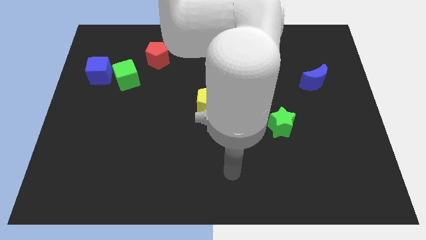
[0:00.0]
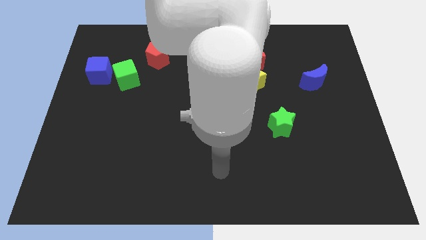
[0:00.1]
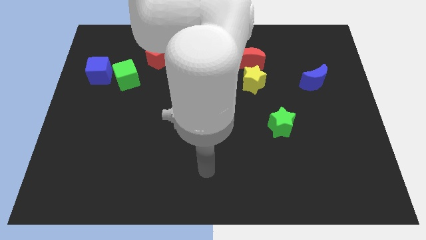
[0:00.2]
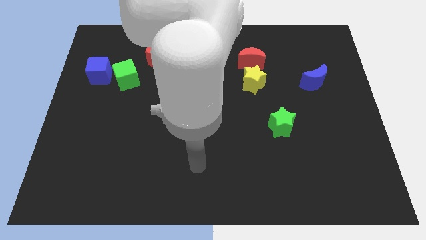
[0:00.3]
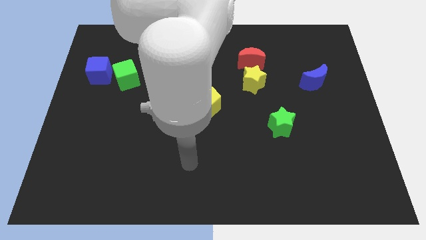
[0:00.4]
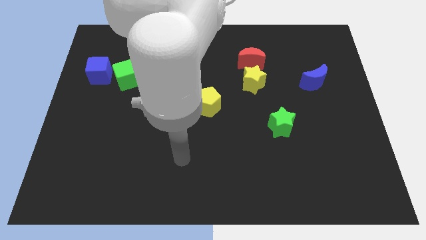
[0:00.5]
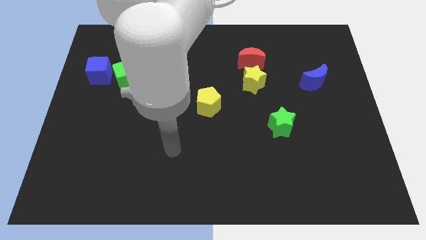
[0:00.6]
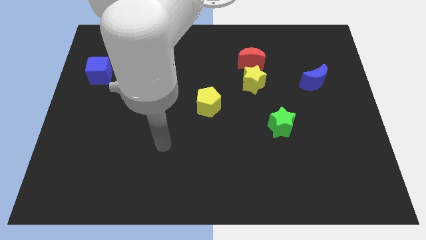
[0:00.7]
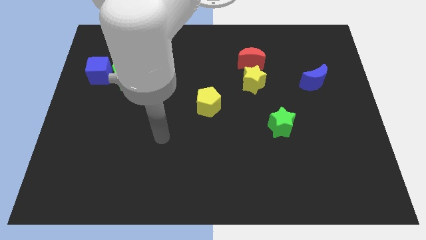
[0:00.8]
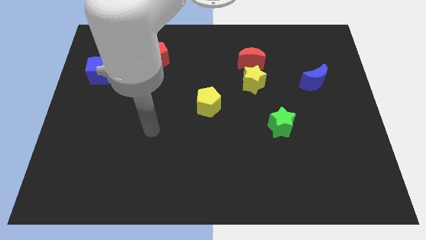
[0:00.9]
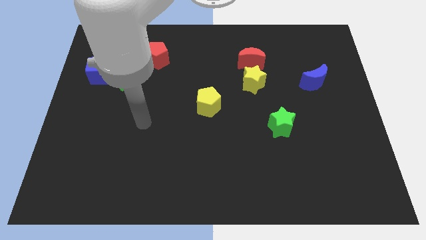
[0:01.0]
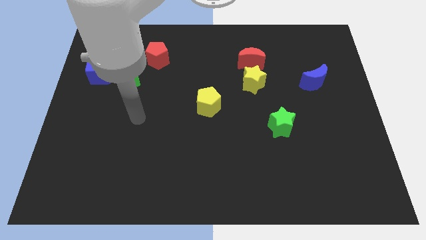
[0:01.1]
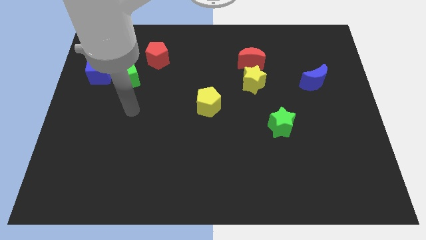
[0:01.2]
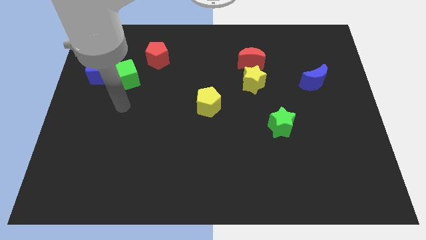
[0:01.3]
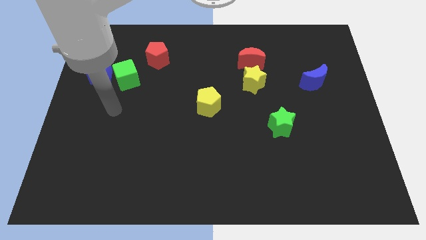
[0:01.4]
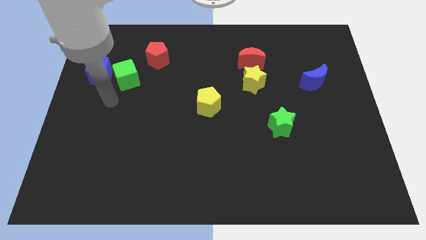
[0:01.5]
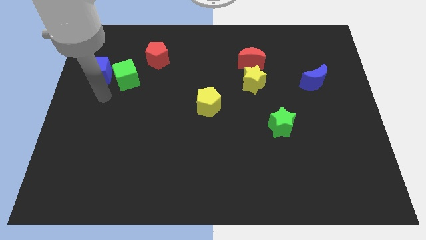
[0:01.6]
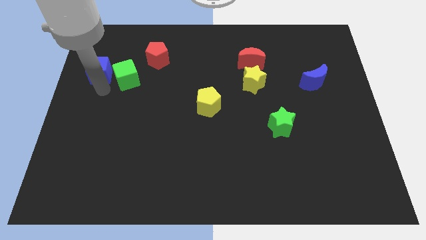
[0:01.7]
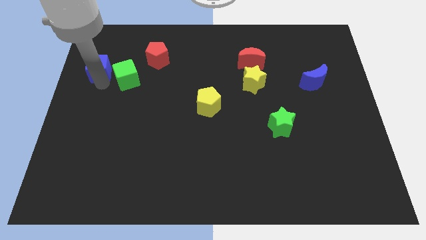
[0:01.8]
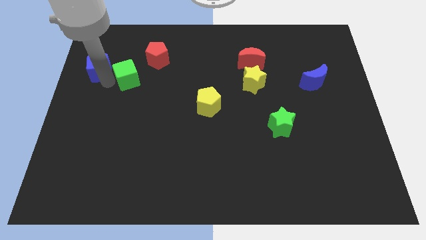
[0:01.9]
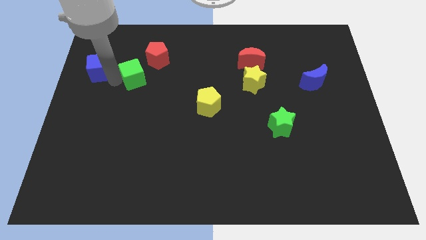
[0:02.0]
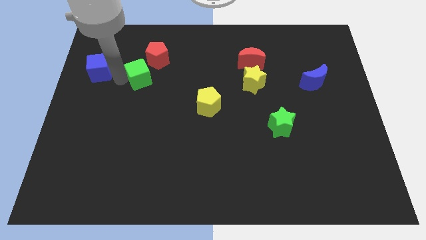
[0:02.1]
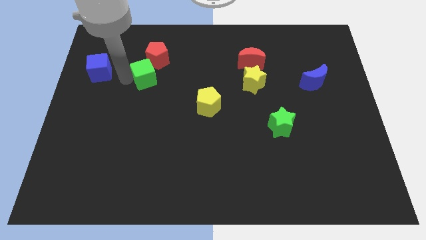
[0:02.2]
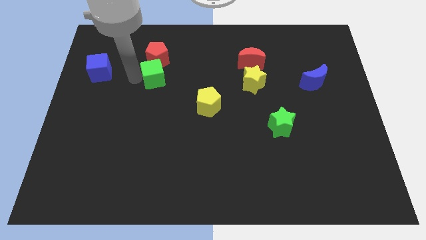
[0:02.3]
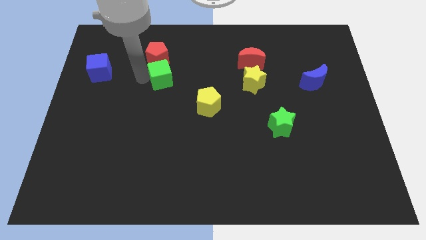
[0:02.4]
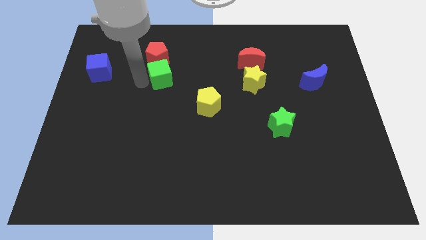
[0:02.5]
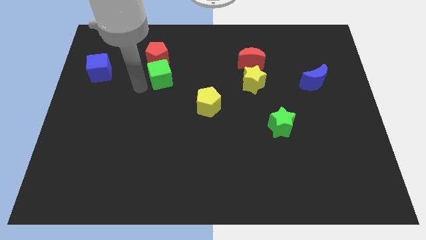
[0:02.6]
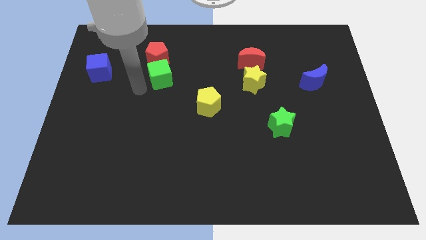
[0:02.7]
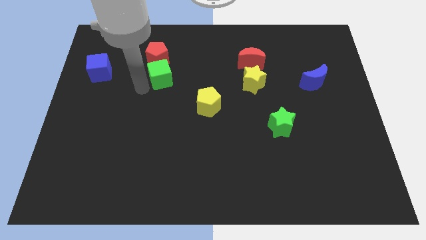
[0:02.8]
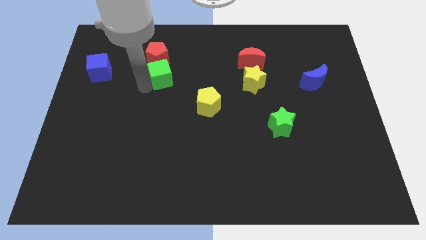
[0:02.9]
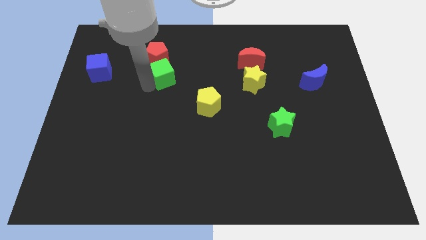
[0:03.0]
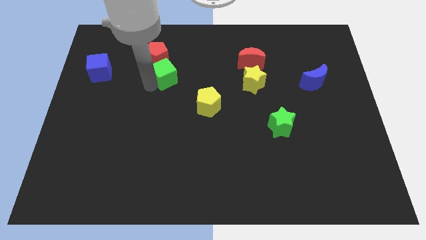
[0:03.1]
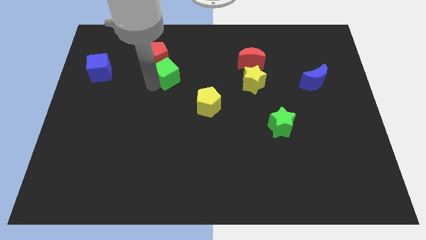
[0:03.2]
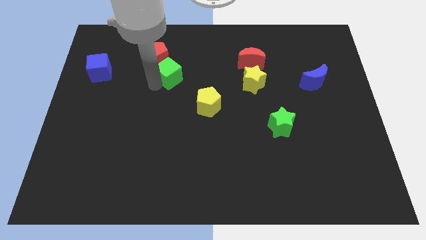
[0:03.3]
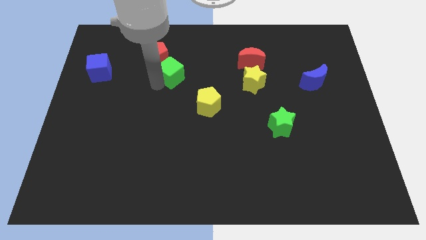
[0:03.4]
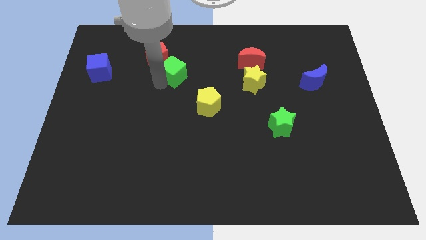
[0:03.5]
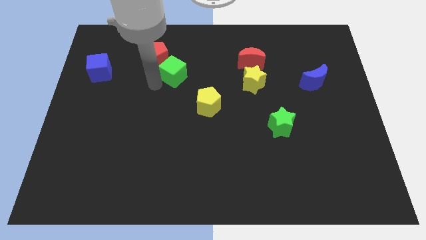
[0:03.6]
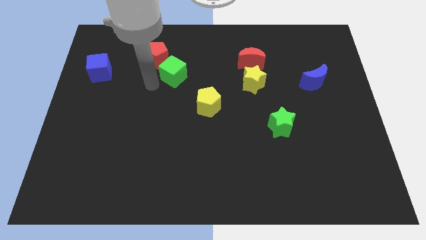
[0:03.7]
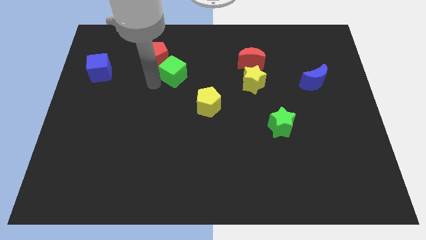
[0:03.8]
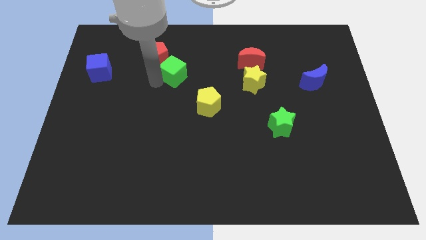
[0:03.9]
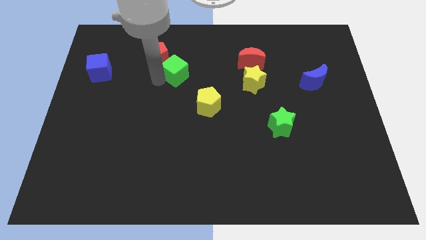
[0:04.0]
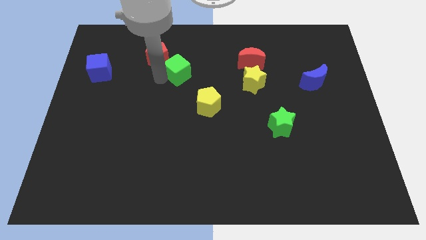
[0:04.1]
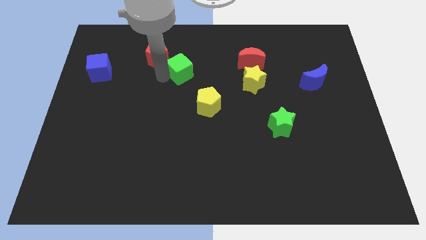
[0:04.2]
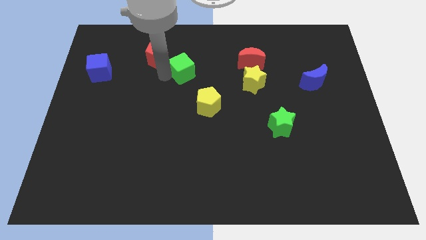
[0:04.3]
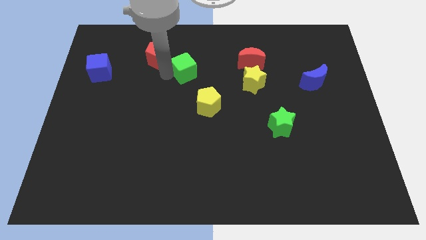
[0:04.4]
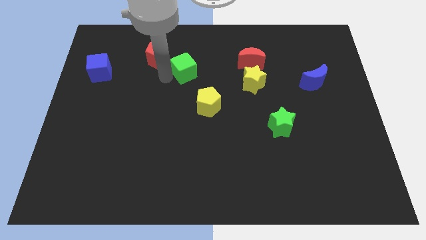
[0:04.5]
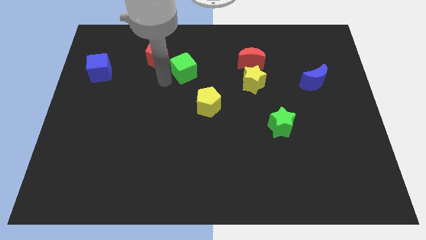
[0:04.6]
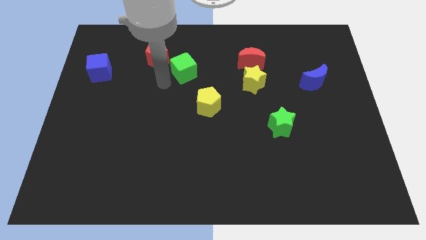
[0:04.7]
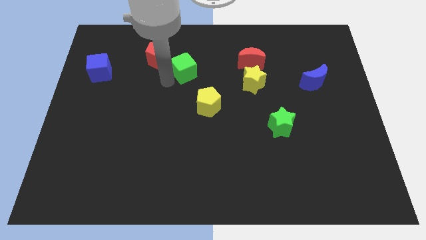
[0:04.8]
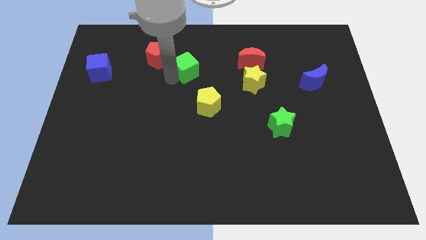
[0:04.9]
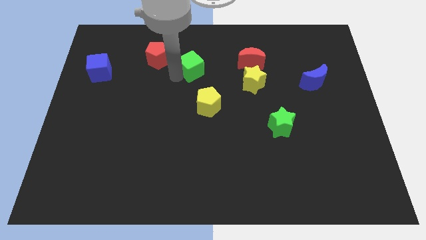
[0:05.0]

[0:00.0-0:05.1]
push the green cube left of the red moon

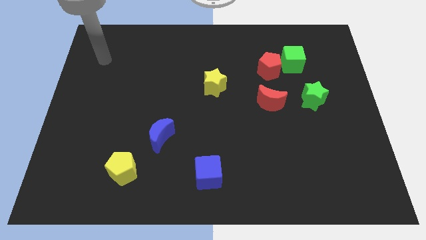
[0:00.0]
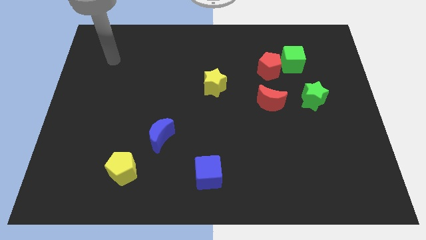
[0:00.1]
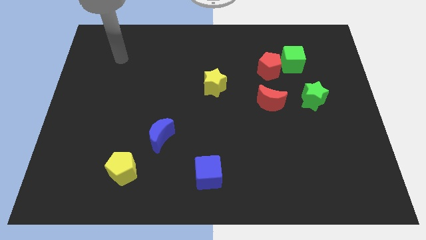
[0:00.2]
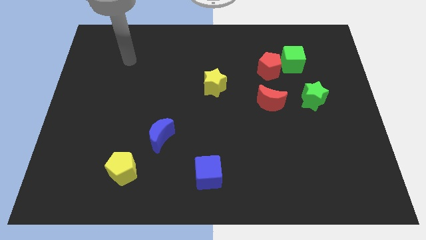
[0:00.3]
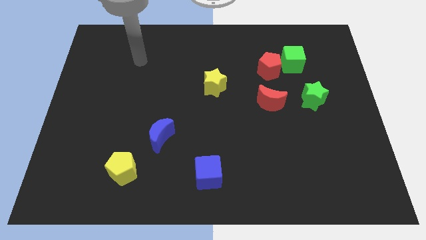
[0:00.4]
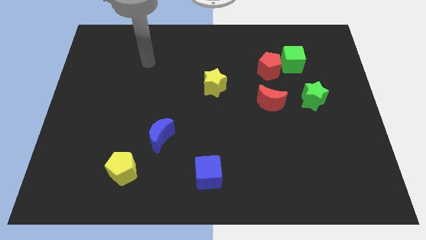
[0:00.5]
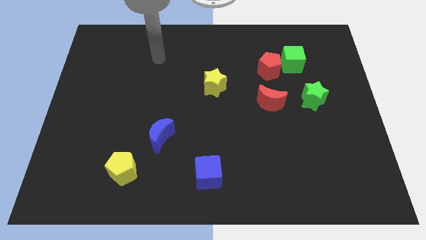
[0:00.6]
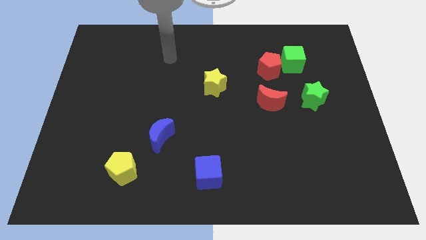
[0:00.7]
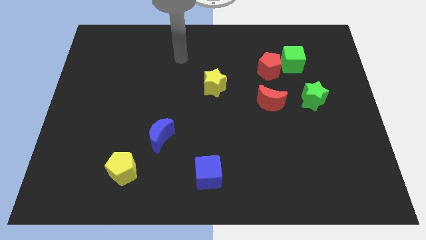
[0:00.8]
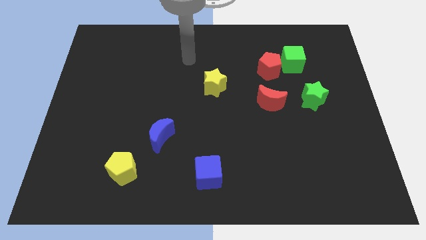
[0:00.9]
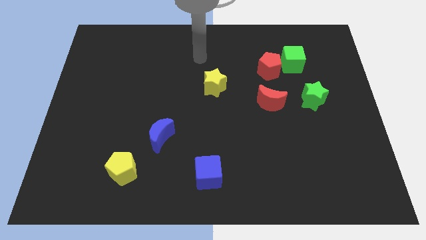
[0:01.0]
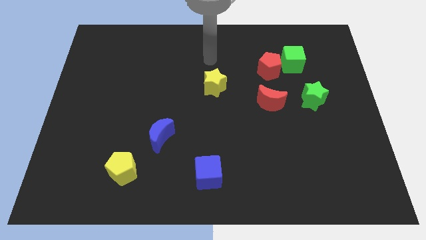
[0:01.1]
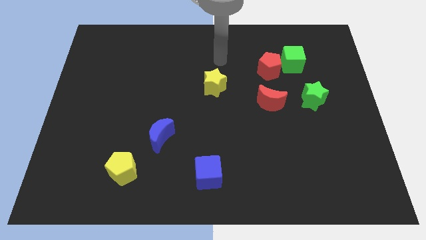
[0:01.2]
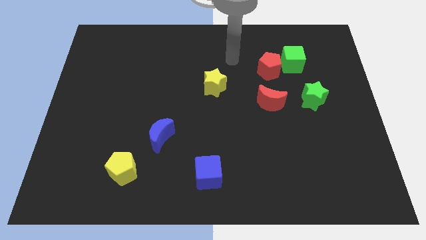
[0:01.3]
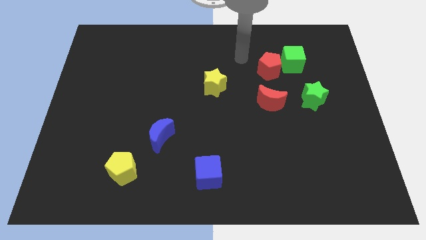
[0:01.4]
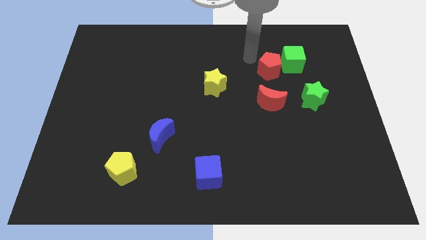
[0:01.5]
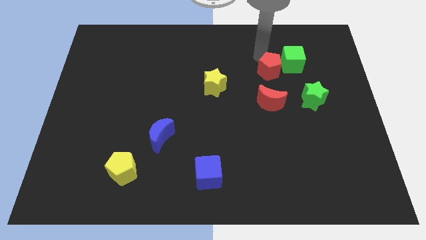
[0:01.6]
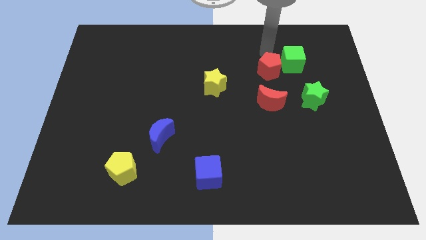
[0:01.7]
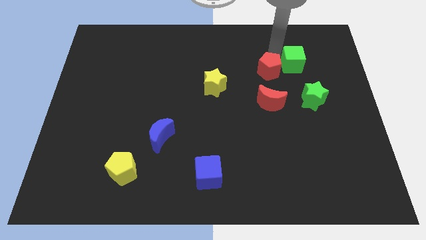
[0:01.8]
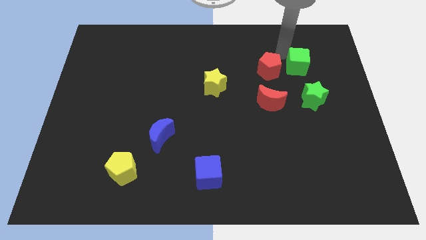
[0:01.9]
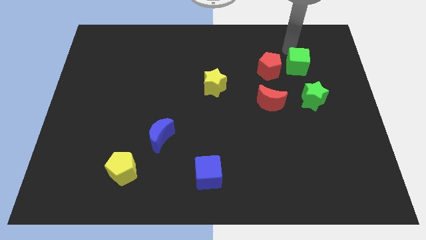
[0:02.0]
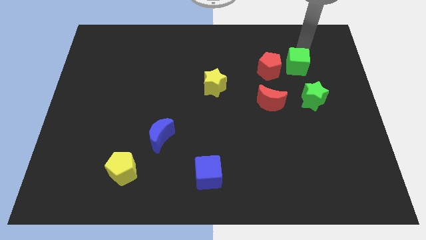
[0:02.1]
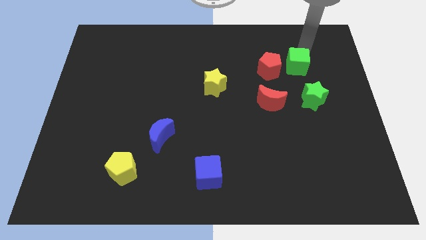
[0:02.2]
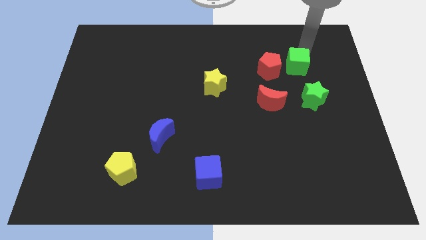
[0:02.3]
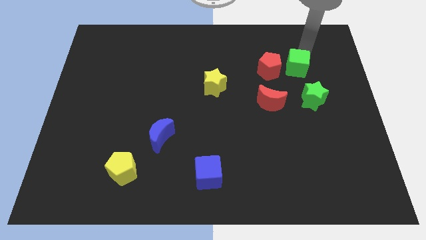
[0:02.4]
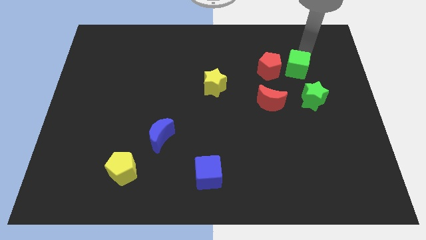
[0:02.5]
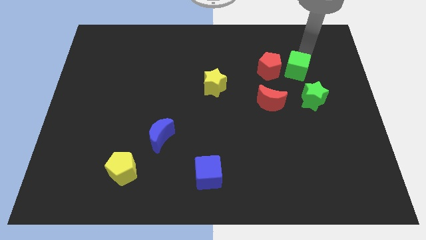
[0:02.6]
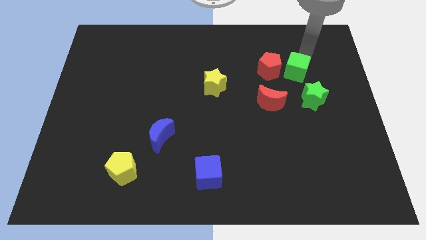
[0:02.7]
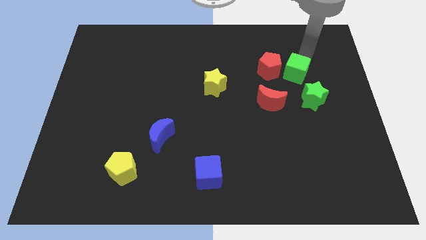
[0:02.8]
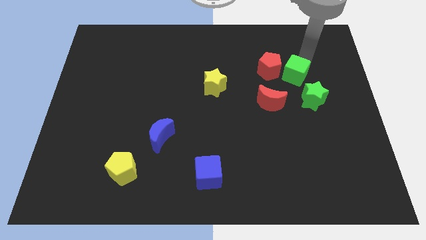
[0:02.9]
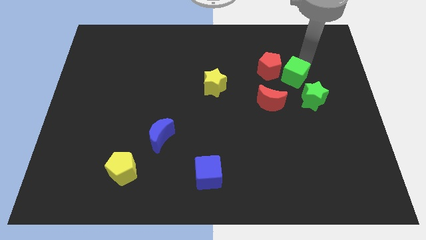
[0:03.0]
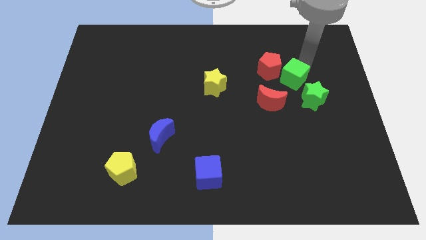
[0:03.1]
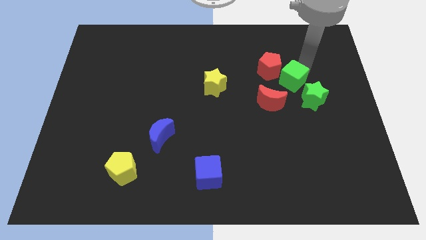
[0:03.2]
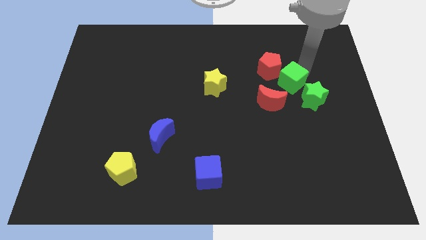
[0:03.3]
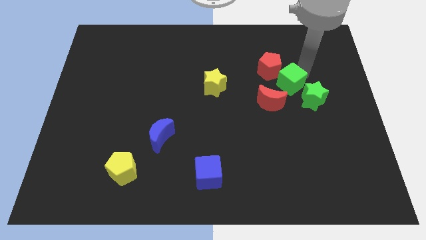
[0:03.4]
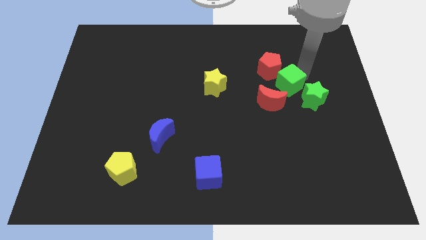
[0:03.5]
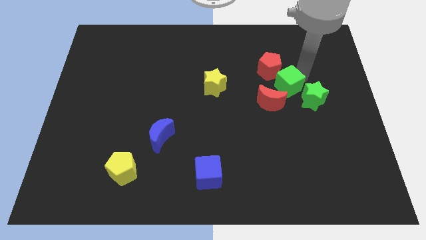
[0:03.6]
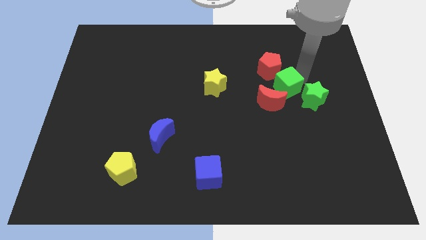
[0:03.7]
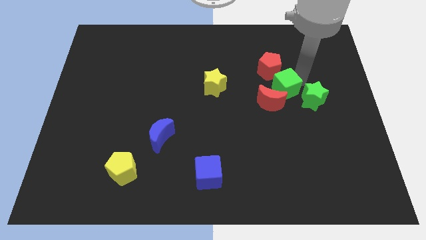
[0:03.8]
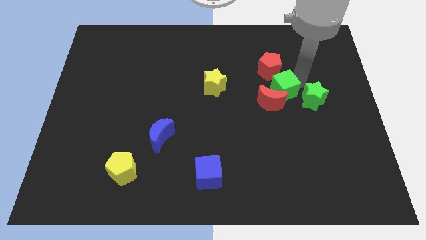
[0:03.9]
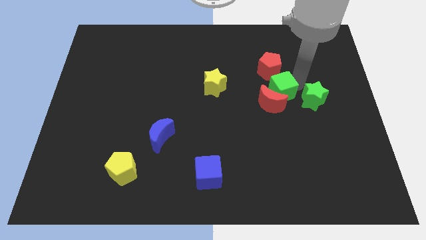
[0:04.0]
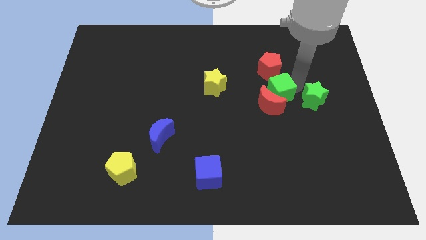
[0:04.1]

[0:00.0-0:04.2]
move the green cube just right of the yellow star
